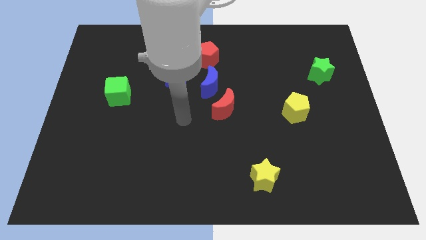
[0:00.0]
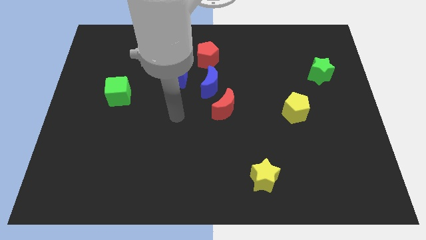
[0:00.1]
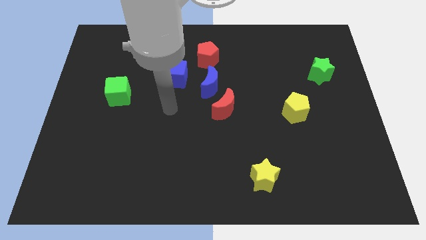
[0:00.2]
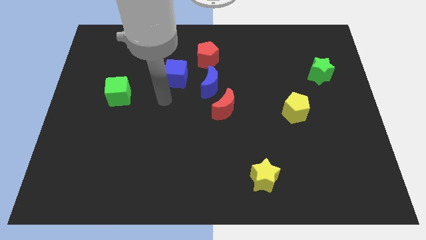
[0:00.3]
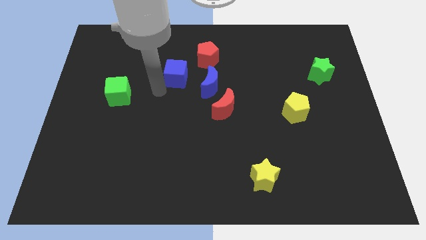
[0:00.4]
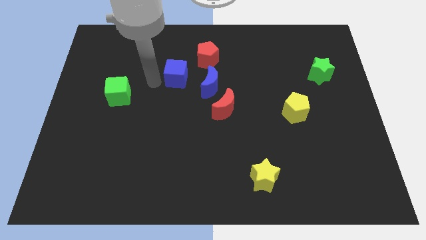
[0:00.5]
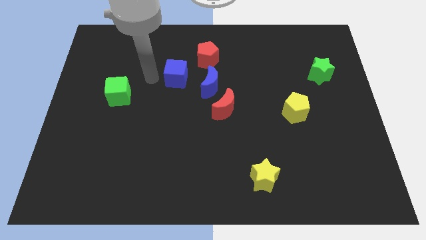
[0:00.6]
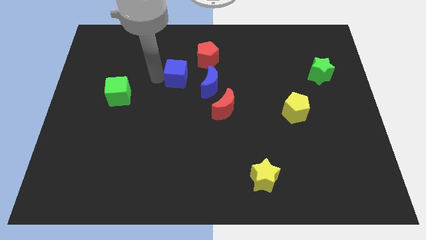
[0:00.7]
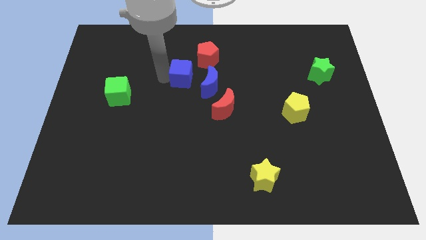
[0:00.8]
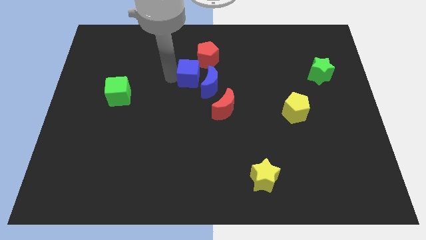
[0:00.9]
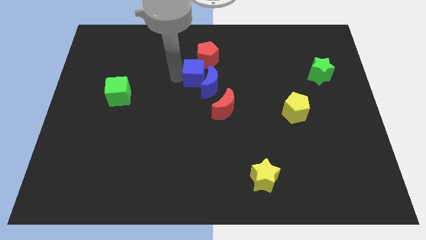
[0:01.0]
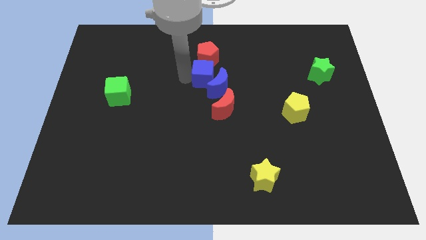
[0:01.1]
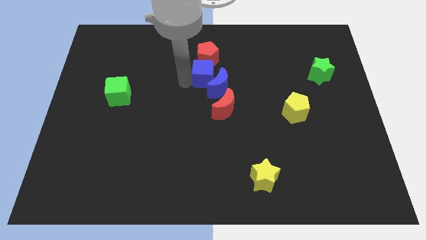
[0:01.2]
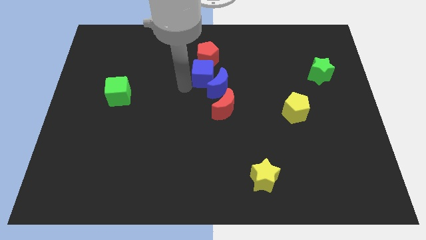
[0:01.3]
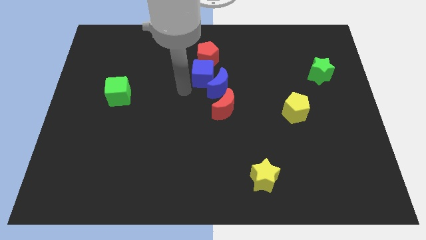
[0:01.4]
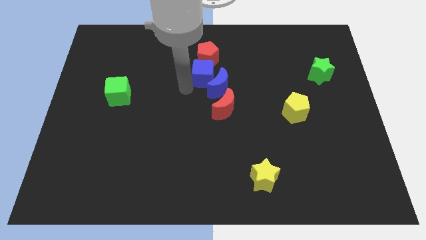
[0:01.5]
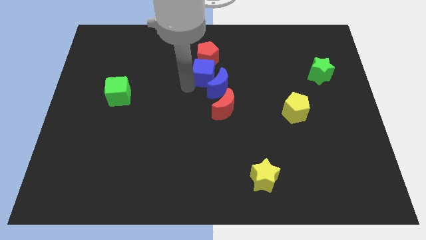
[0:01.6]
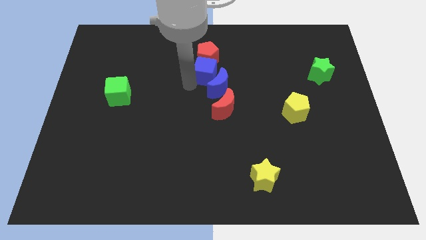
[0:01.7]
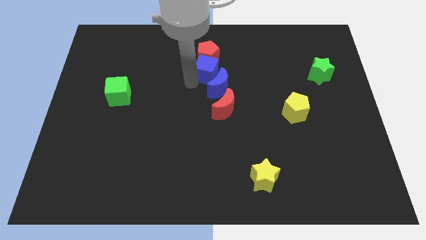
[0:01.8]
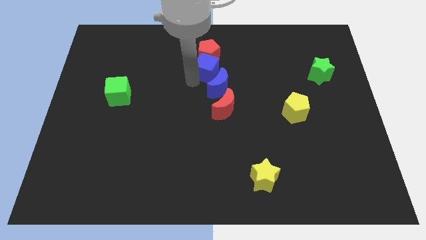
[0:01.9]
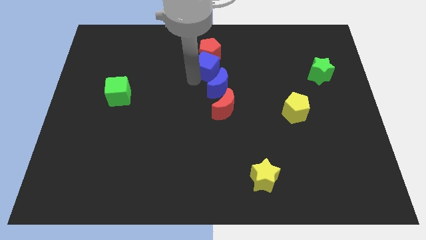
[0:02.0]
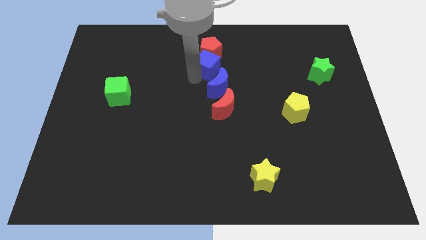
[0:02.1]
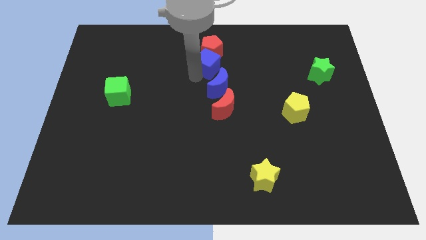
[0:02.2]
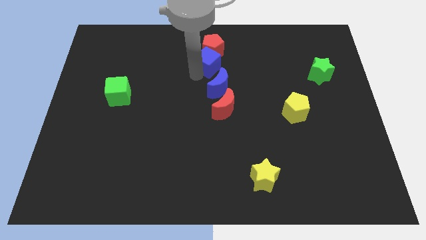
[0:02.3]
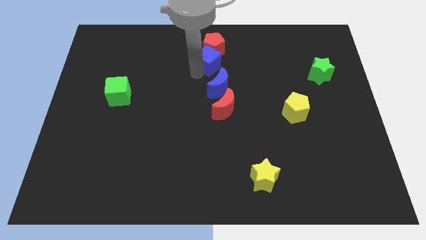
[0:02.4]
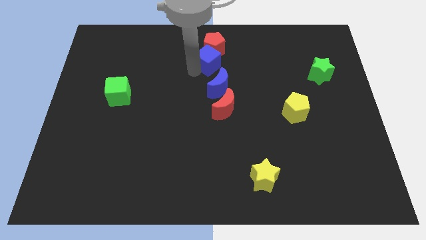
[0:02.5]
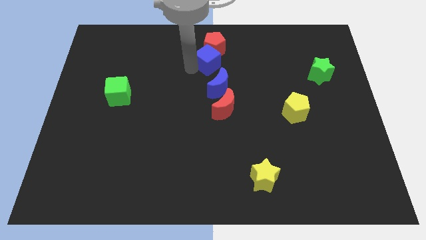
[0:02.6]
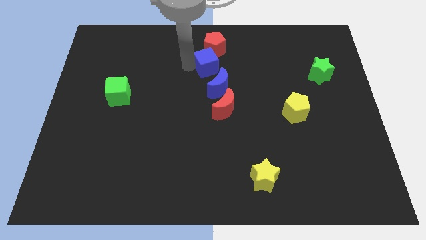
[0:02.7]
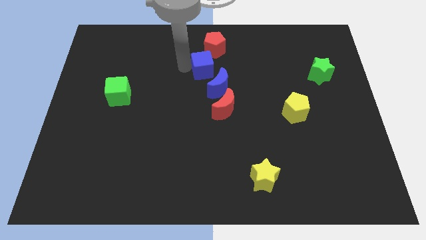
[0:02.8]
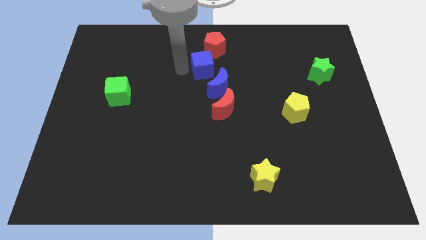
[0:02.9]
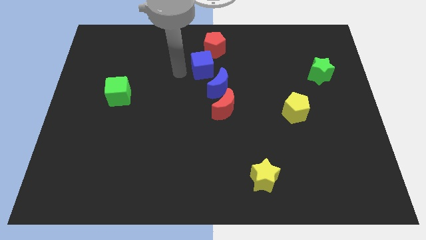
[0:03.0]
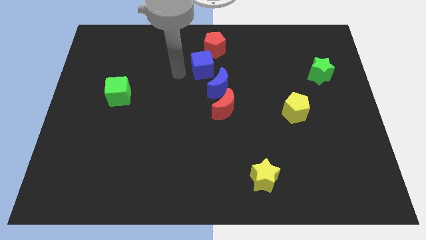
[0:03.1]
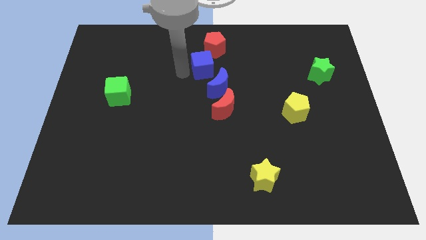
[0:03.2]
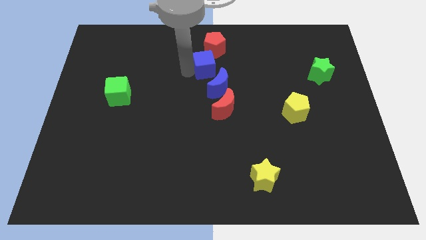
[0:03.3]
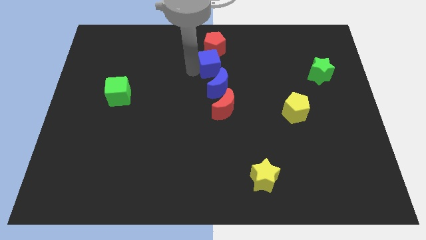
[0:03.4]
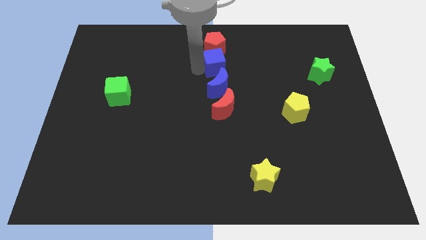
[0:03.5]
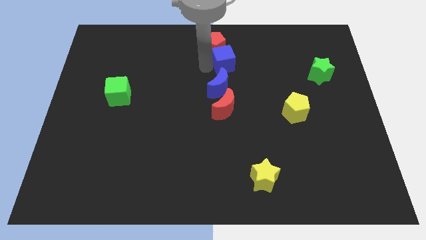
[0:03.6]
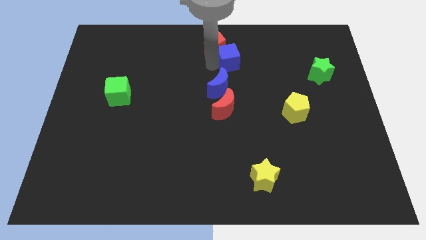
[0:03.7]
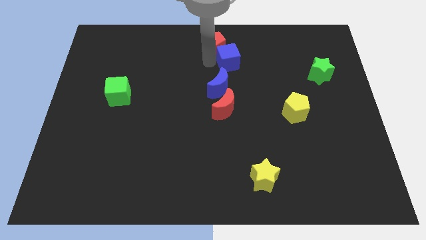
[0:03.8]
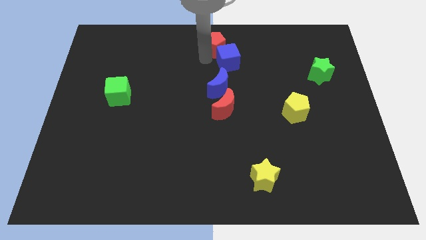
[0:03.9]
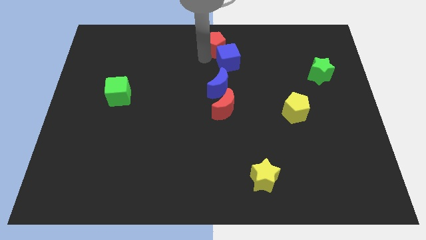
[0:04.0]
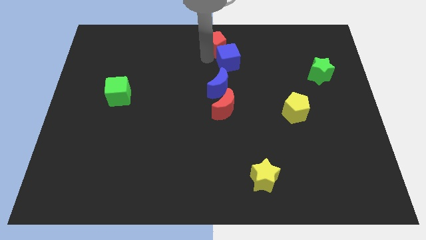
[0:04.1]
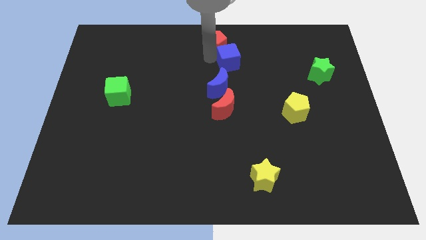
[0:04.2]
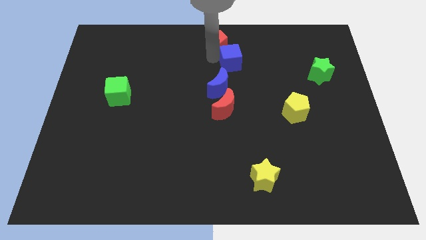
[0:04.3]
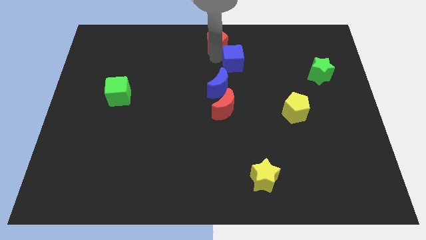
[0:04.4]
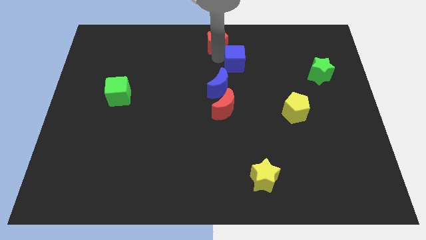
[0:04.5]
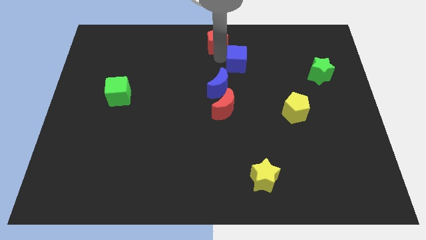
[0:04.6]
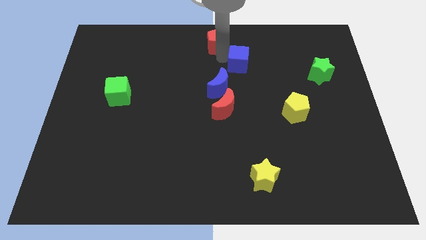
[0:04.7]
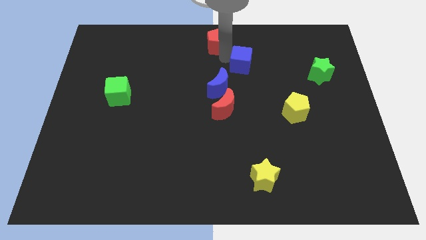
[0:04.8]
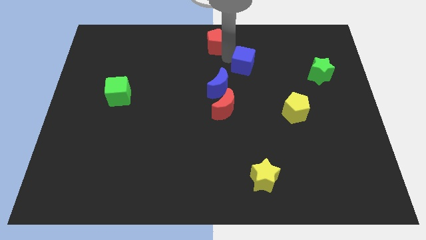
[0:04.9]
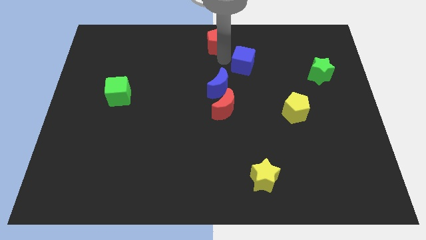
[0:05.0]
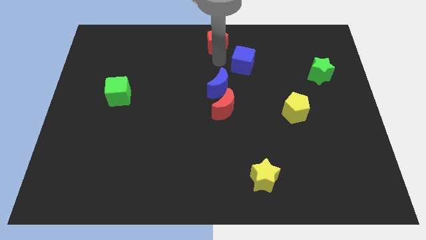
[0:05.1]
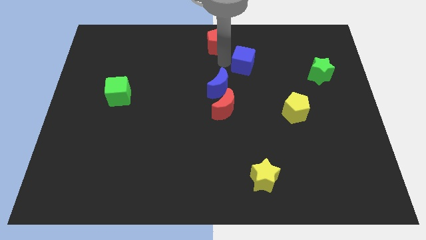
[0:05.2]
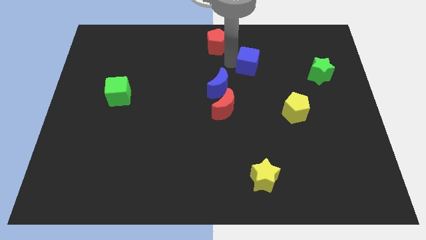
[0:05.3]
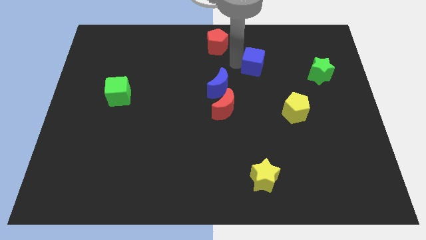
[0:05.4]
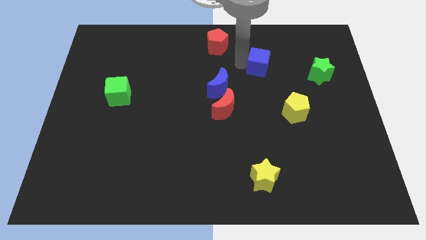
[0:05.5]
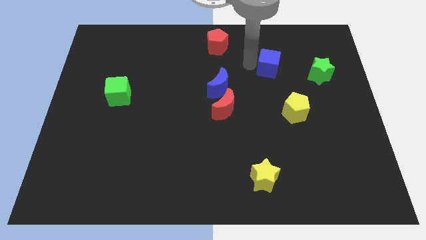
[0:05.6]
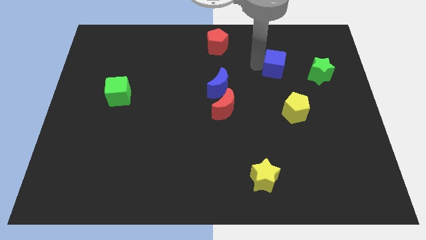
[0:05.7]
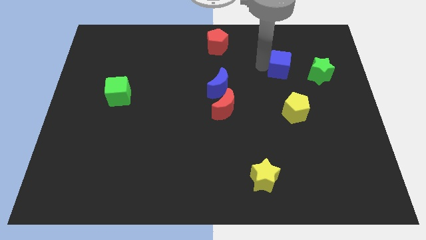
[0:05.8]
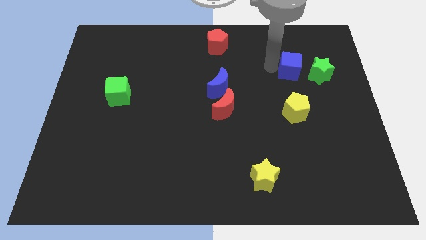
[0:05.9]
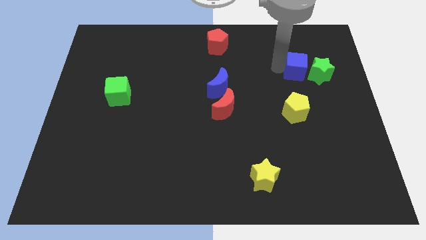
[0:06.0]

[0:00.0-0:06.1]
put the blue cube towards the green star

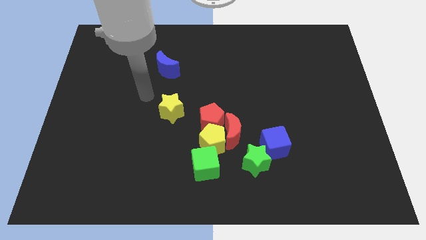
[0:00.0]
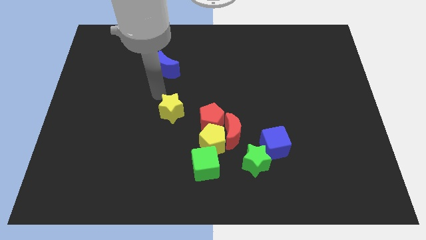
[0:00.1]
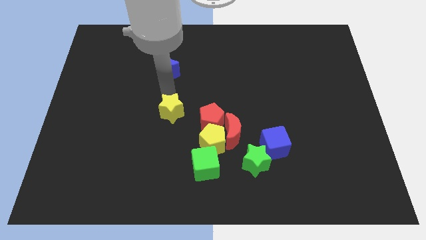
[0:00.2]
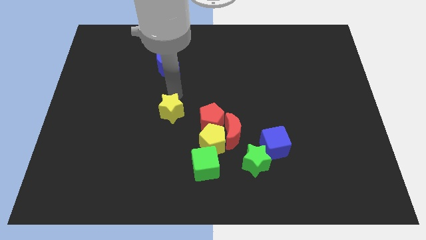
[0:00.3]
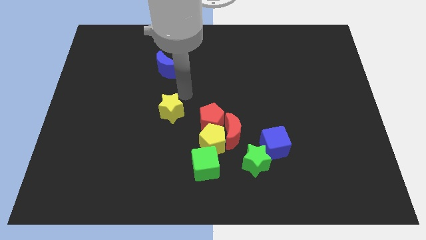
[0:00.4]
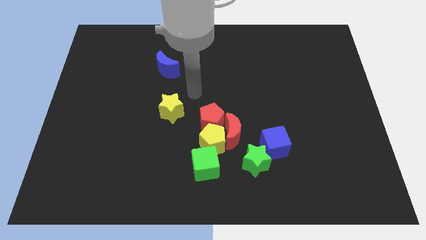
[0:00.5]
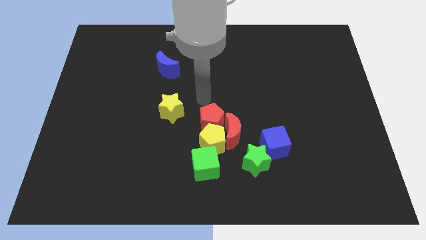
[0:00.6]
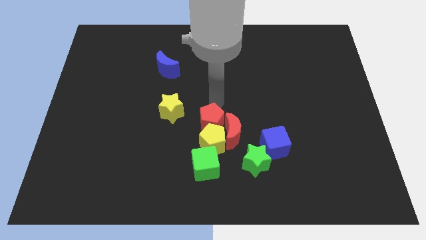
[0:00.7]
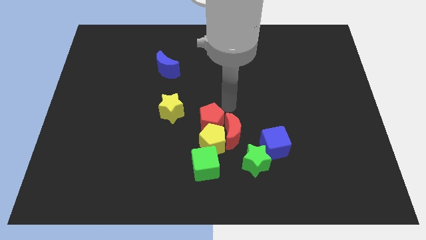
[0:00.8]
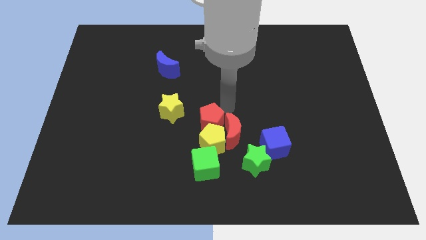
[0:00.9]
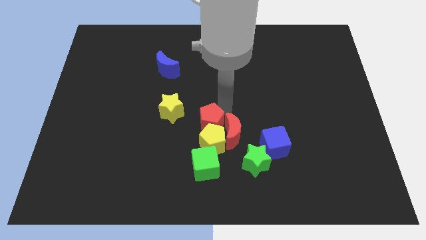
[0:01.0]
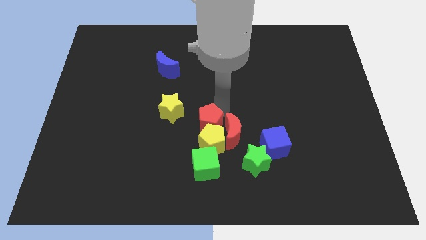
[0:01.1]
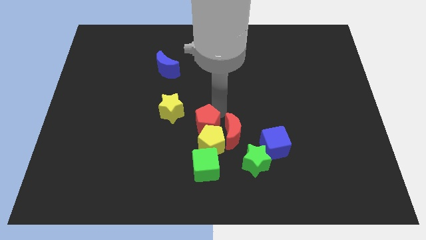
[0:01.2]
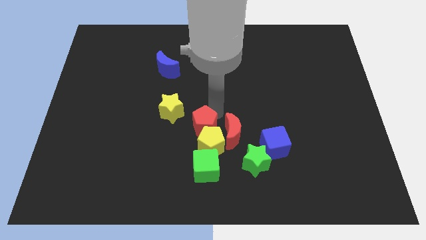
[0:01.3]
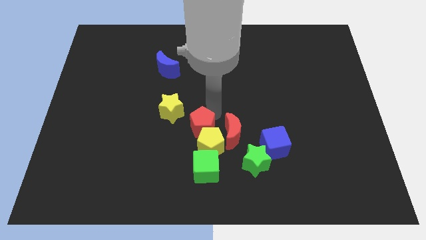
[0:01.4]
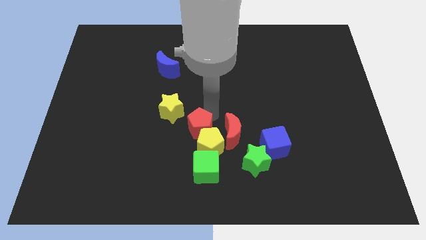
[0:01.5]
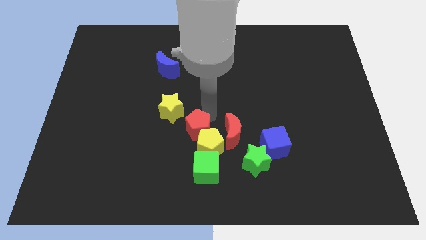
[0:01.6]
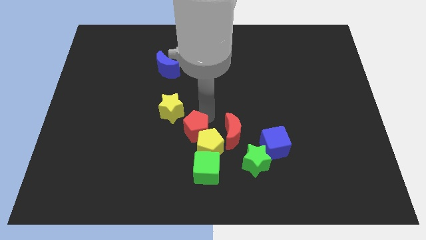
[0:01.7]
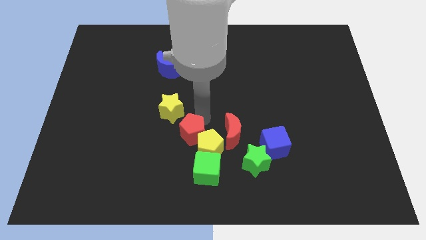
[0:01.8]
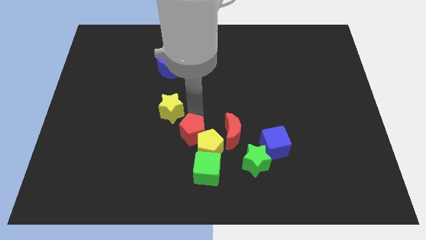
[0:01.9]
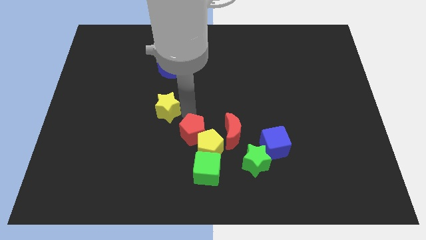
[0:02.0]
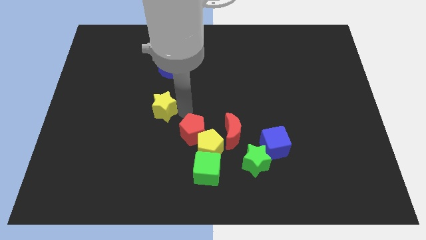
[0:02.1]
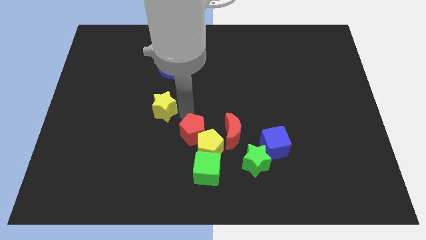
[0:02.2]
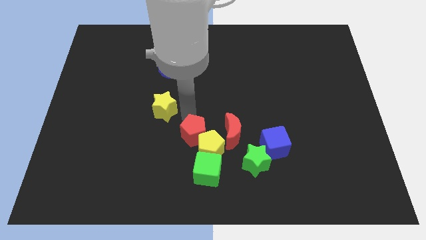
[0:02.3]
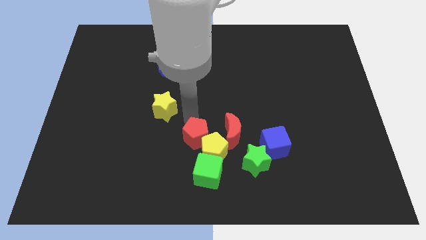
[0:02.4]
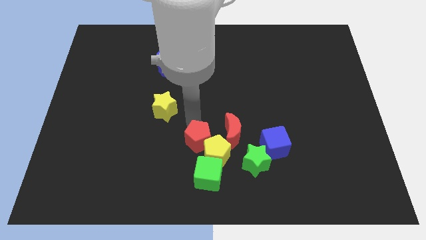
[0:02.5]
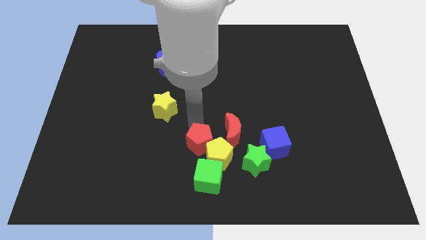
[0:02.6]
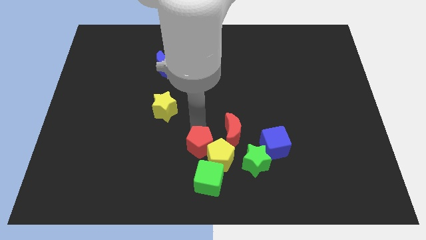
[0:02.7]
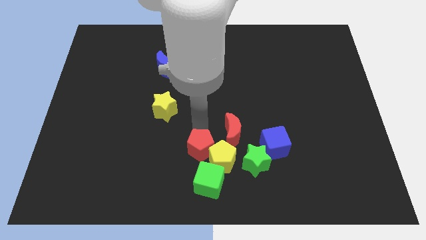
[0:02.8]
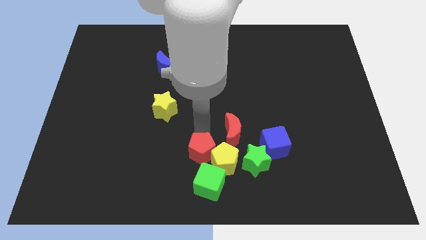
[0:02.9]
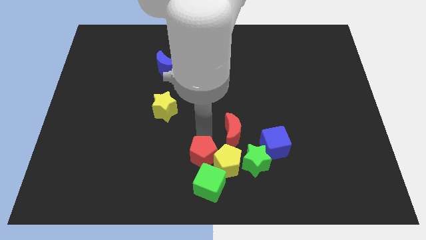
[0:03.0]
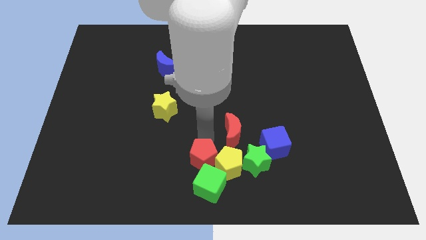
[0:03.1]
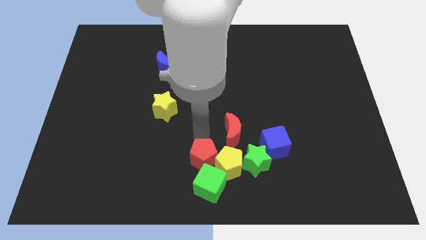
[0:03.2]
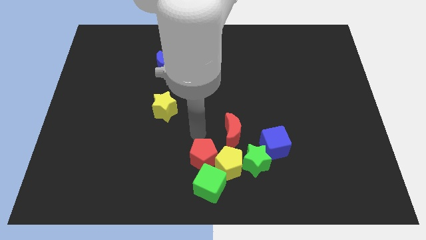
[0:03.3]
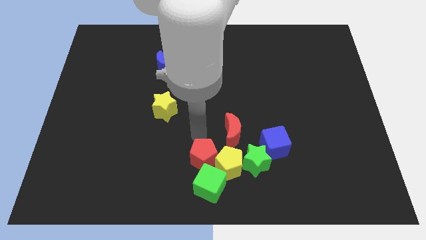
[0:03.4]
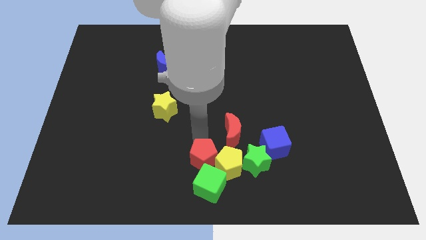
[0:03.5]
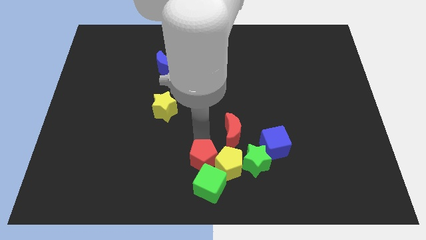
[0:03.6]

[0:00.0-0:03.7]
push the red pentagon towards the green cube
